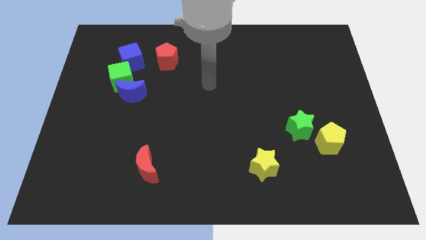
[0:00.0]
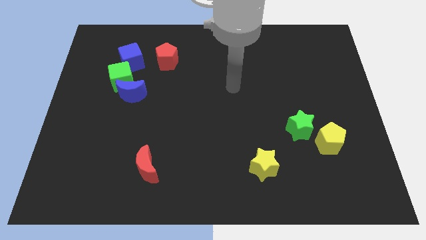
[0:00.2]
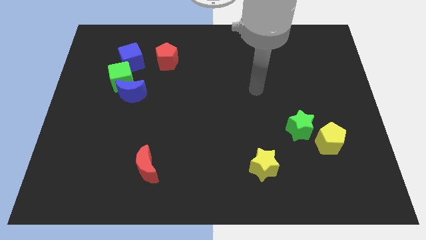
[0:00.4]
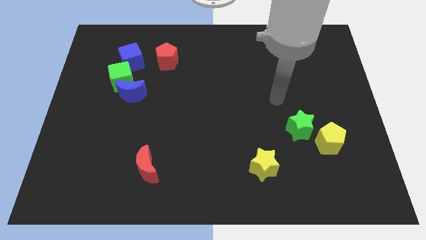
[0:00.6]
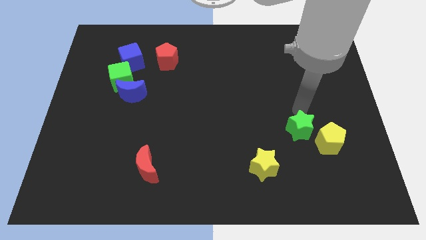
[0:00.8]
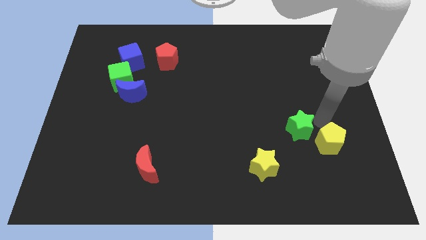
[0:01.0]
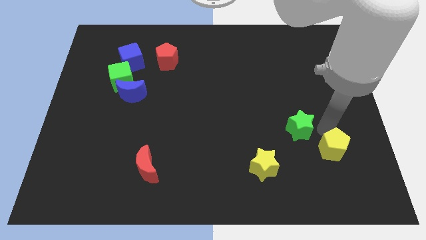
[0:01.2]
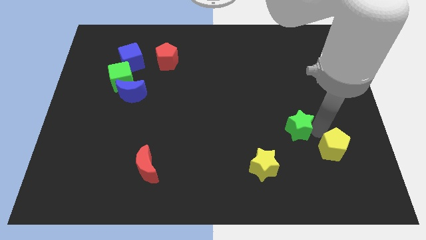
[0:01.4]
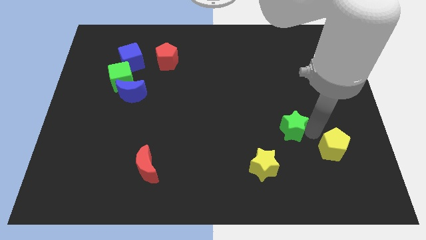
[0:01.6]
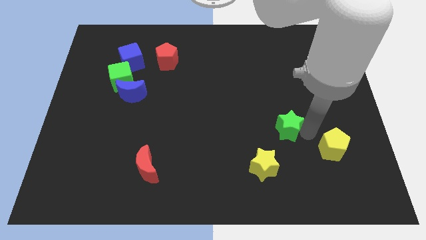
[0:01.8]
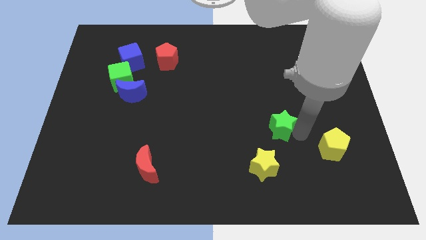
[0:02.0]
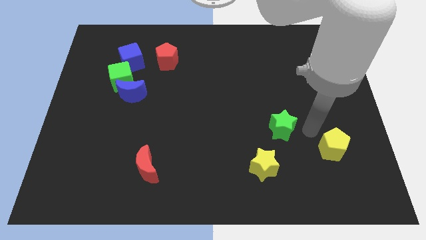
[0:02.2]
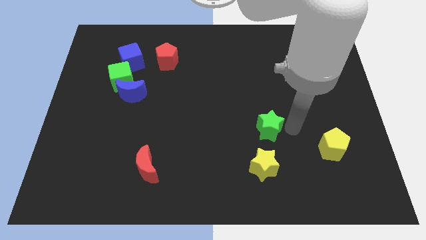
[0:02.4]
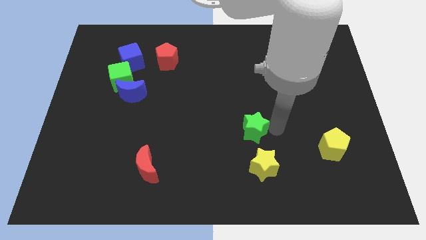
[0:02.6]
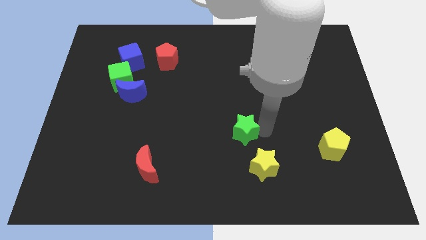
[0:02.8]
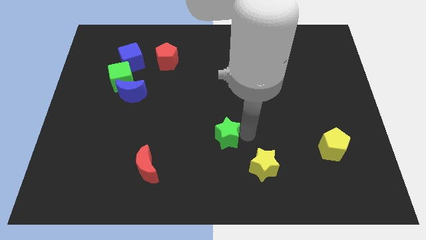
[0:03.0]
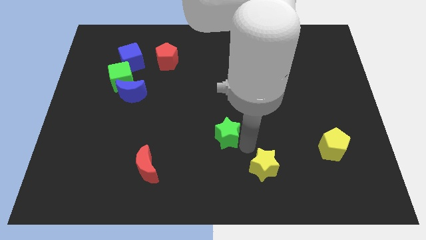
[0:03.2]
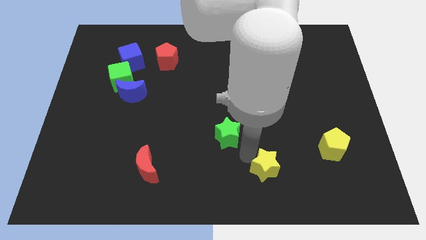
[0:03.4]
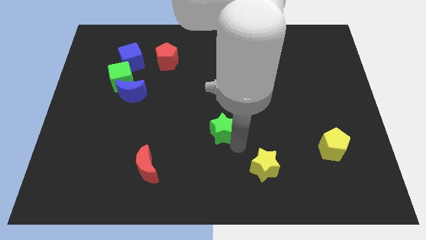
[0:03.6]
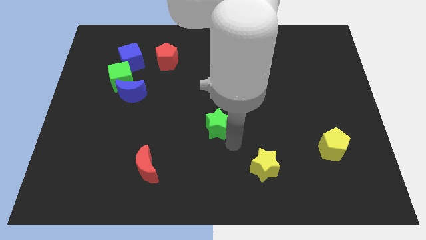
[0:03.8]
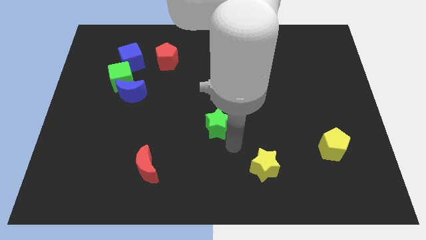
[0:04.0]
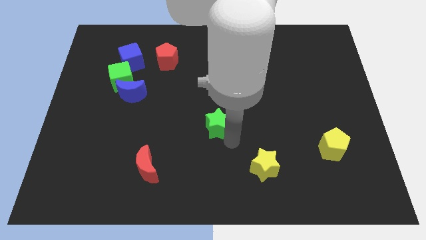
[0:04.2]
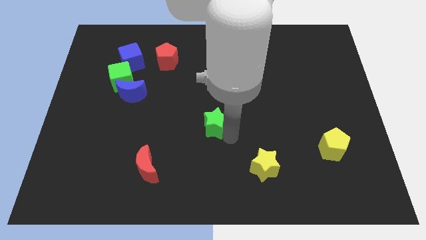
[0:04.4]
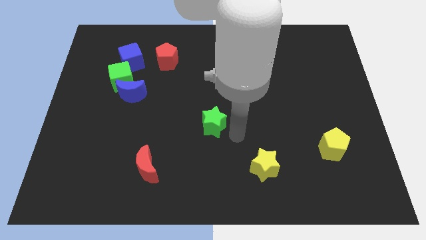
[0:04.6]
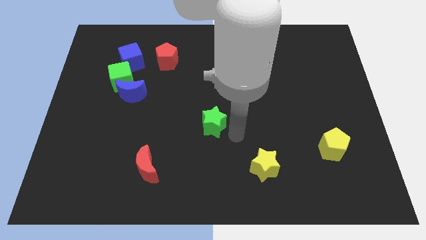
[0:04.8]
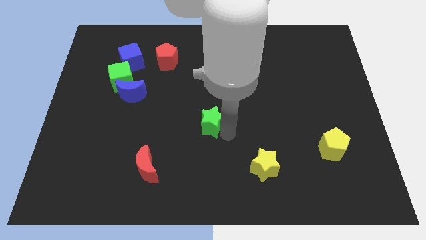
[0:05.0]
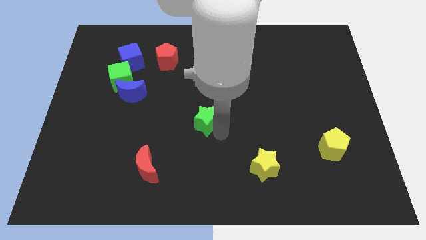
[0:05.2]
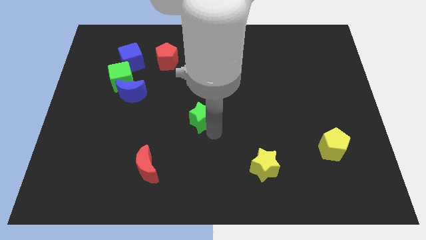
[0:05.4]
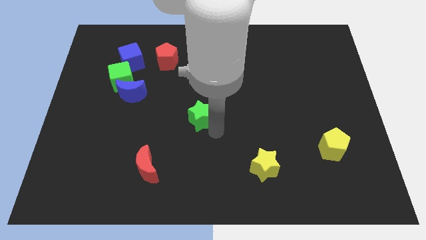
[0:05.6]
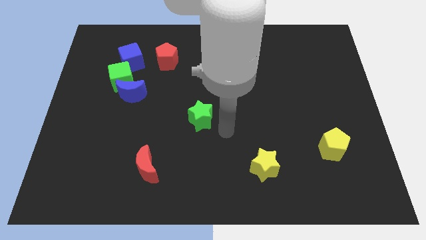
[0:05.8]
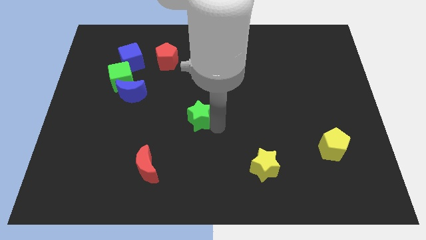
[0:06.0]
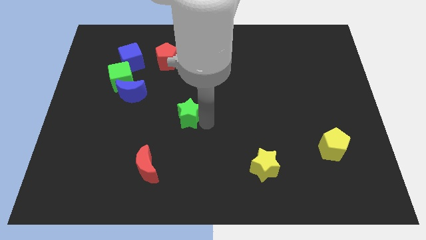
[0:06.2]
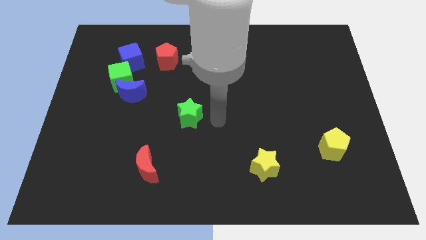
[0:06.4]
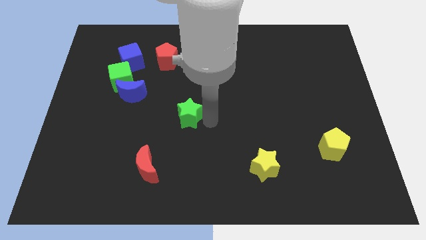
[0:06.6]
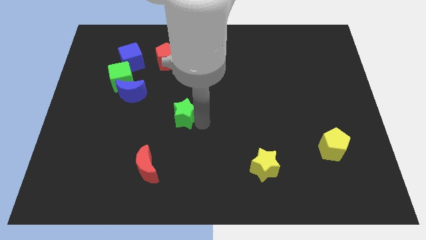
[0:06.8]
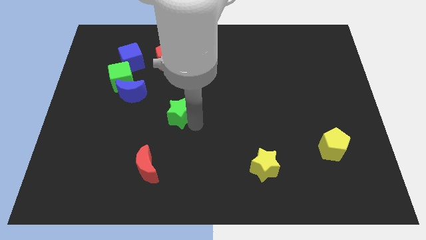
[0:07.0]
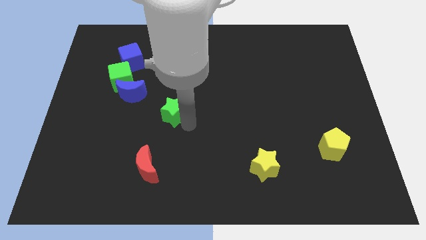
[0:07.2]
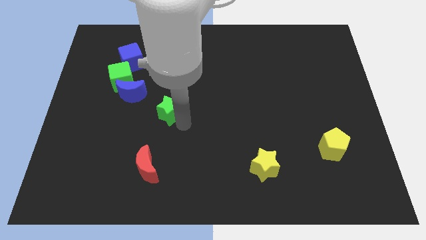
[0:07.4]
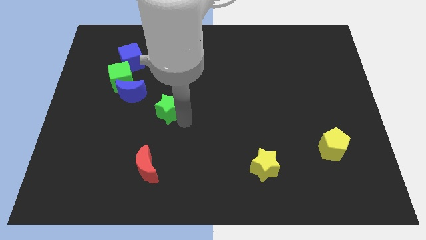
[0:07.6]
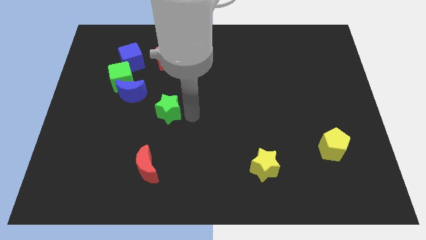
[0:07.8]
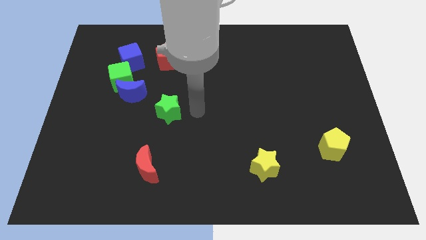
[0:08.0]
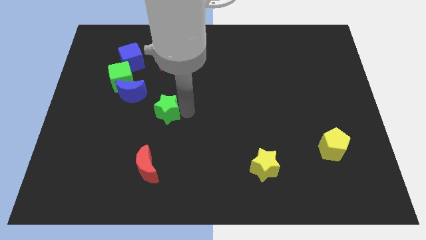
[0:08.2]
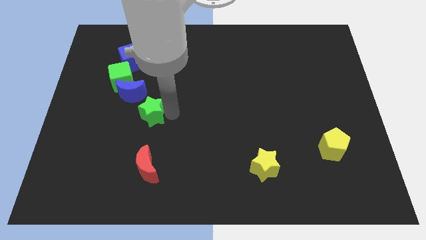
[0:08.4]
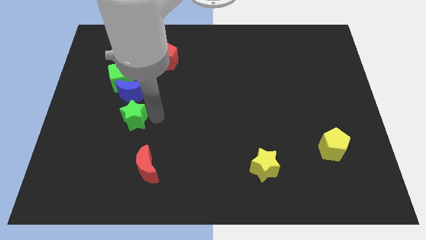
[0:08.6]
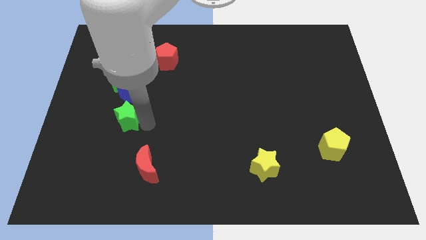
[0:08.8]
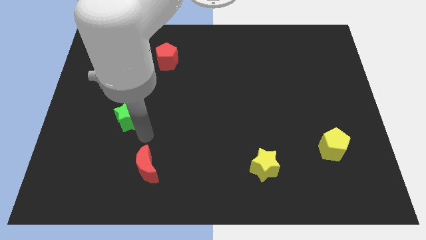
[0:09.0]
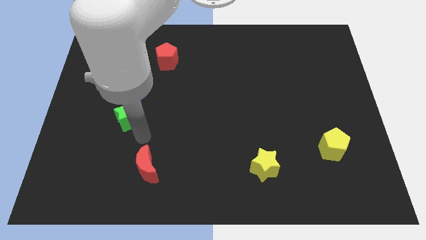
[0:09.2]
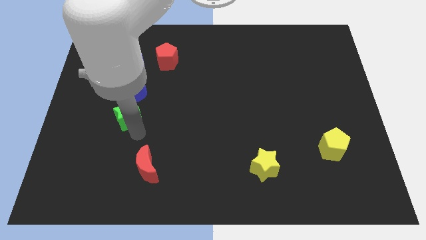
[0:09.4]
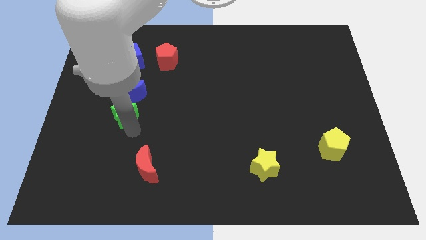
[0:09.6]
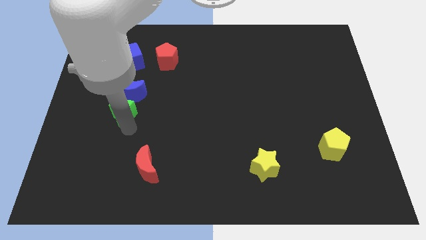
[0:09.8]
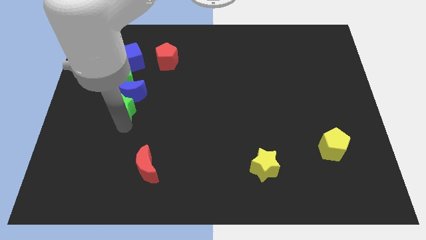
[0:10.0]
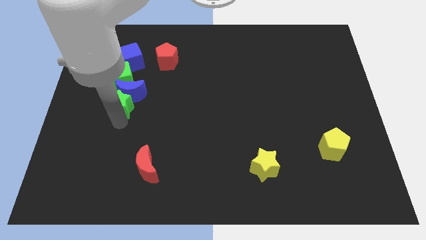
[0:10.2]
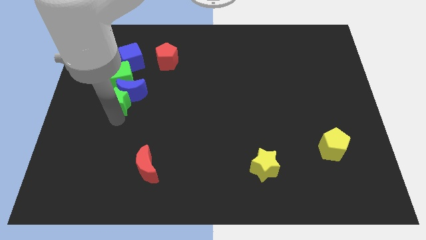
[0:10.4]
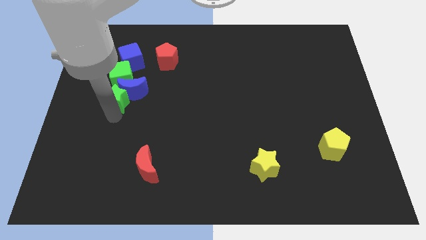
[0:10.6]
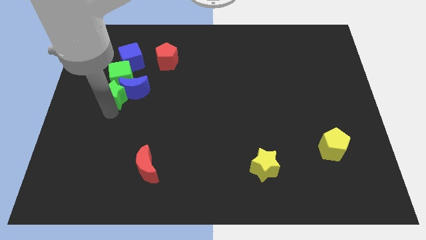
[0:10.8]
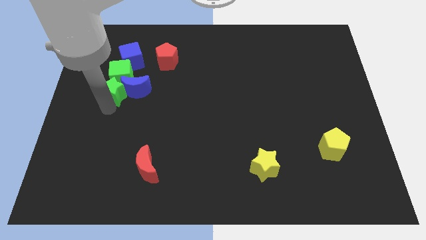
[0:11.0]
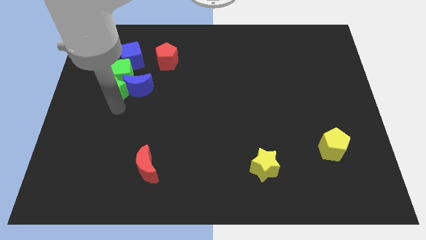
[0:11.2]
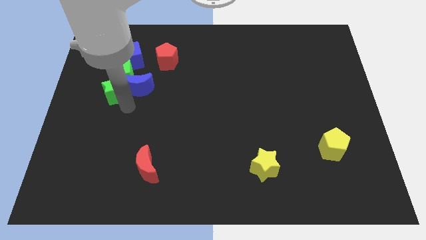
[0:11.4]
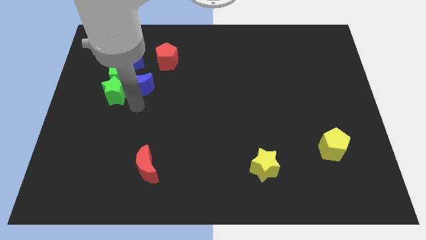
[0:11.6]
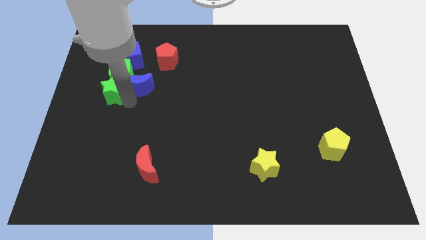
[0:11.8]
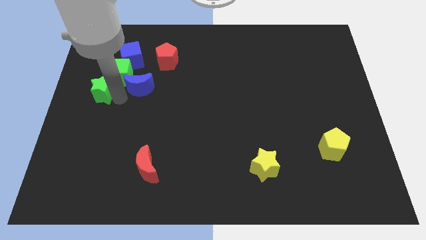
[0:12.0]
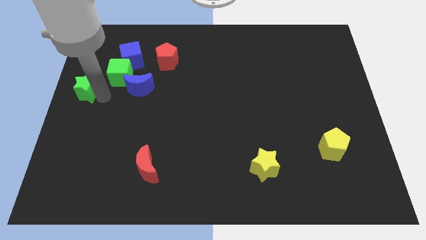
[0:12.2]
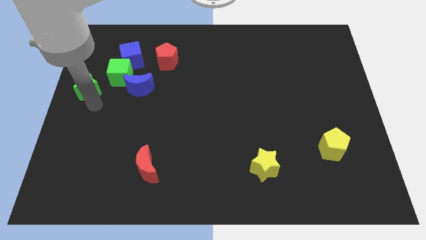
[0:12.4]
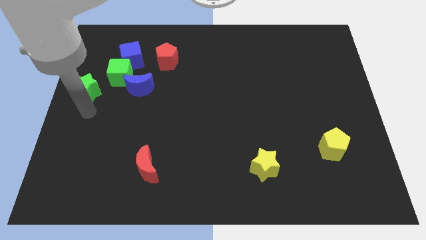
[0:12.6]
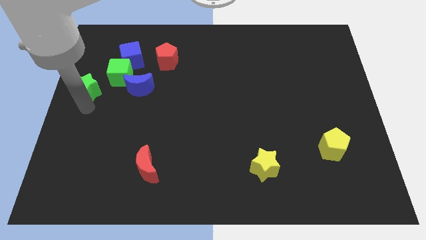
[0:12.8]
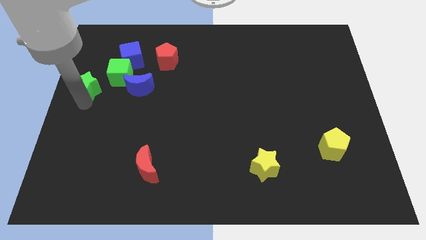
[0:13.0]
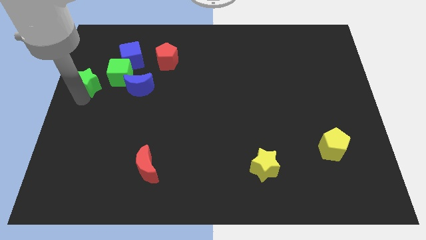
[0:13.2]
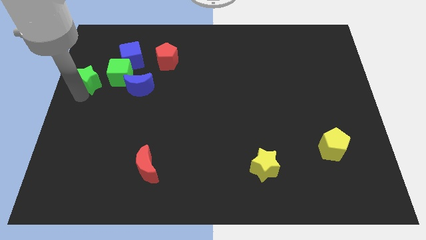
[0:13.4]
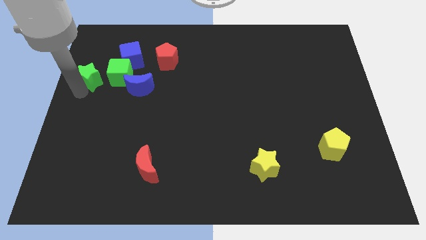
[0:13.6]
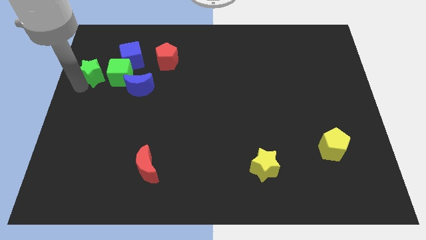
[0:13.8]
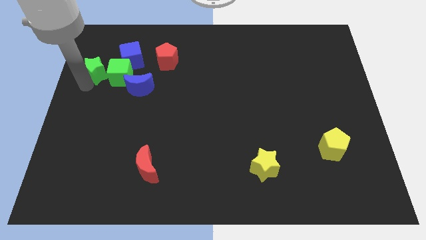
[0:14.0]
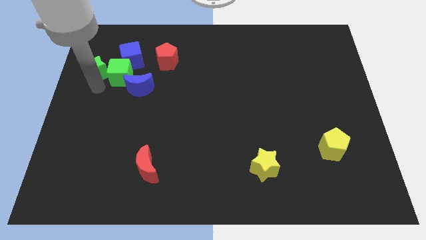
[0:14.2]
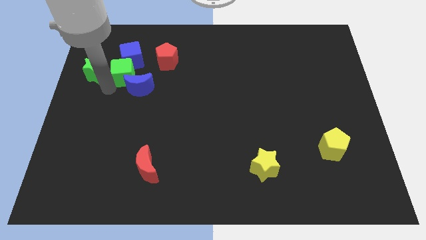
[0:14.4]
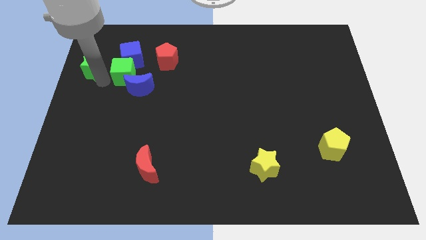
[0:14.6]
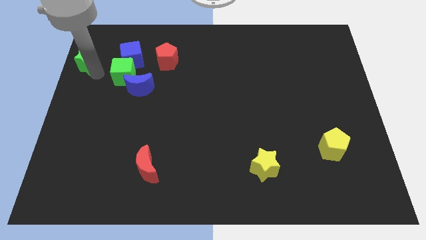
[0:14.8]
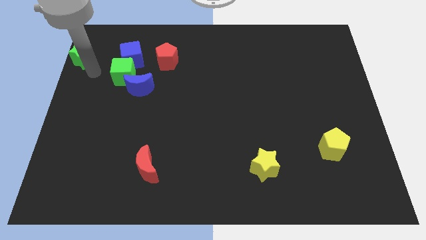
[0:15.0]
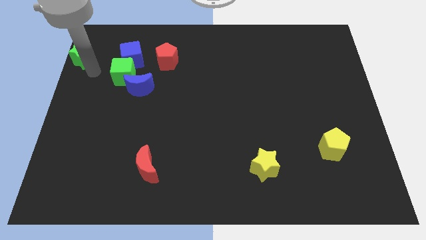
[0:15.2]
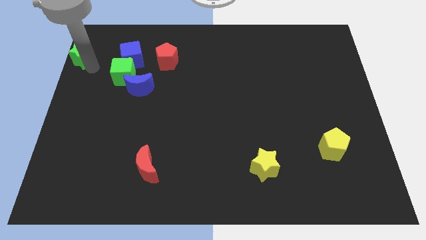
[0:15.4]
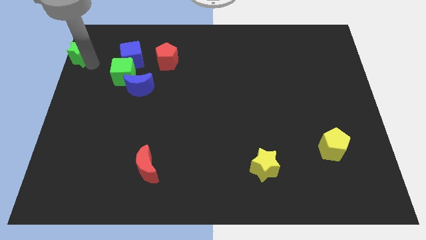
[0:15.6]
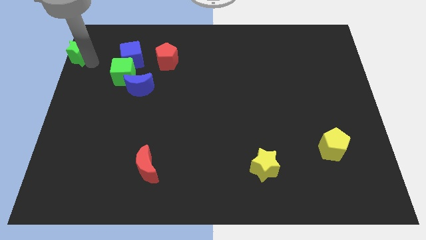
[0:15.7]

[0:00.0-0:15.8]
slide the green star to the top left corner
